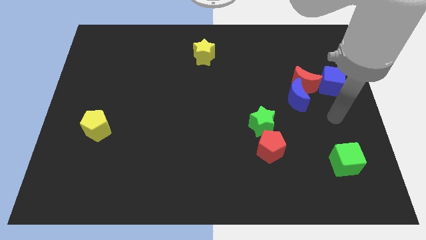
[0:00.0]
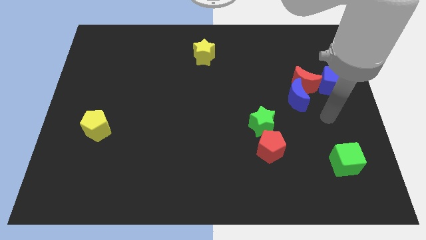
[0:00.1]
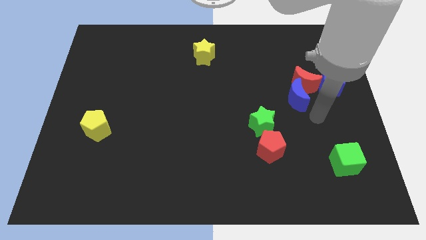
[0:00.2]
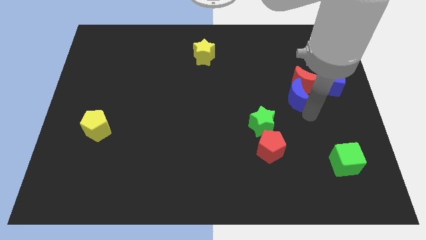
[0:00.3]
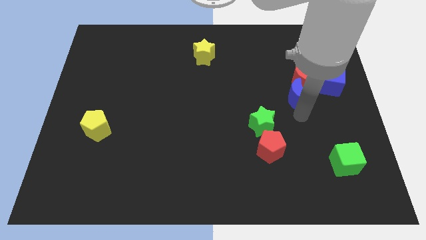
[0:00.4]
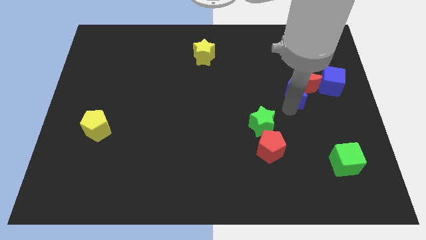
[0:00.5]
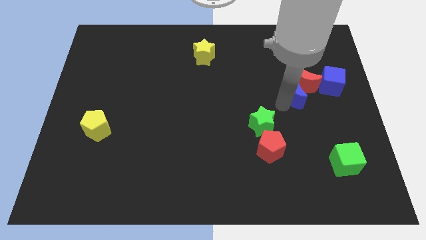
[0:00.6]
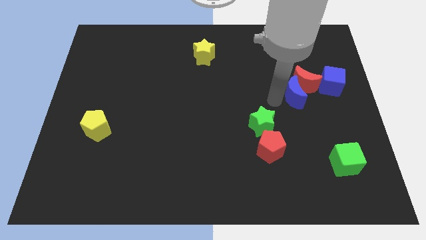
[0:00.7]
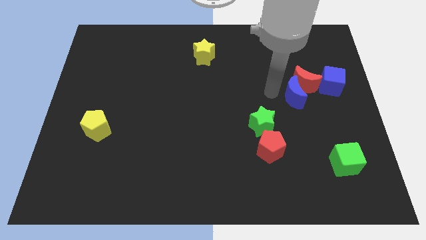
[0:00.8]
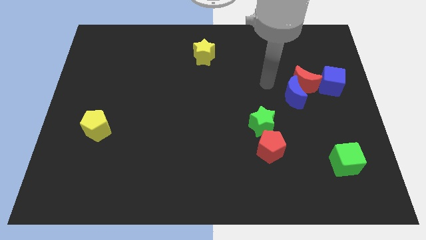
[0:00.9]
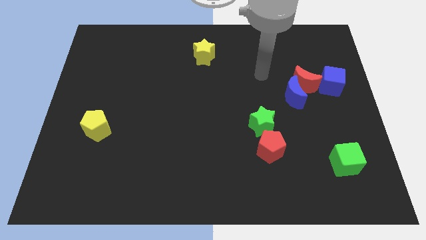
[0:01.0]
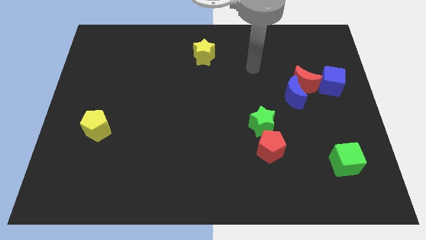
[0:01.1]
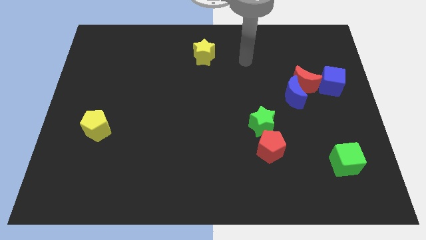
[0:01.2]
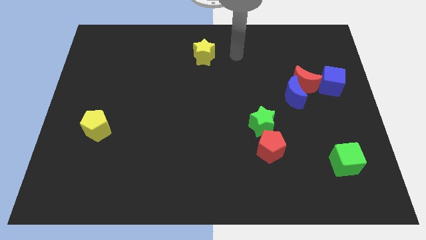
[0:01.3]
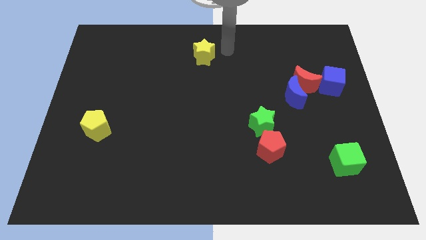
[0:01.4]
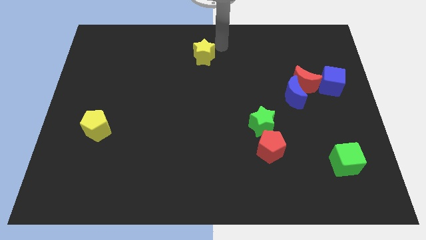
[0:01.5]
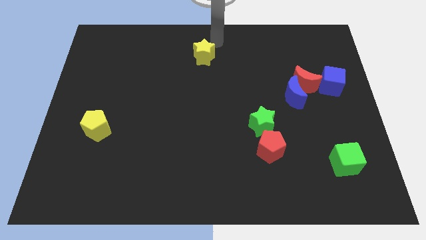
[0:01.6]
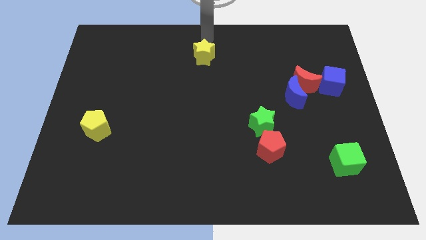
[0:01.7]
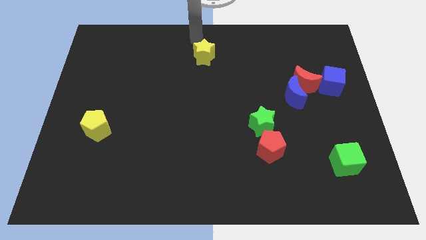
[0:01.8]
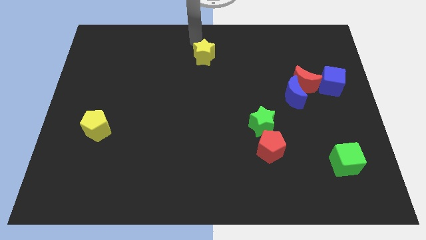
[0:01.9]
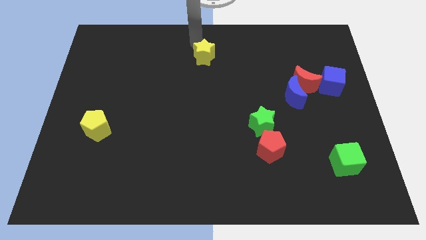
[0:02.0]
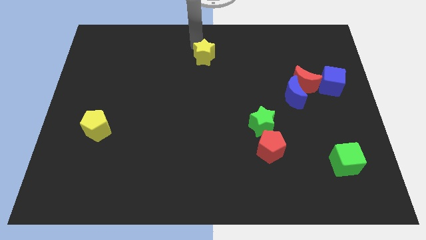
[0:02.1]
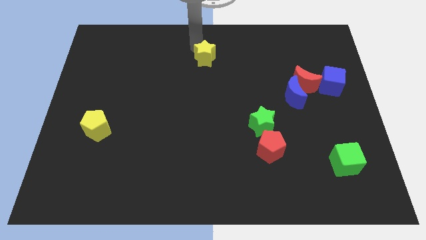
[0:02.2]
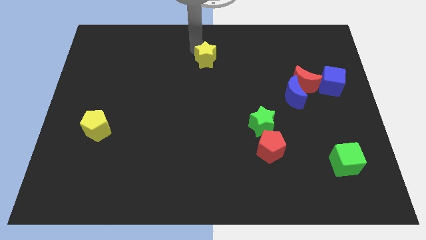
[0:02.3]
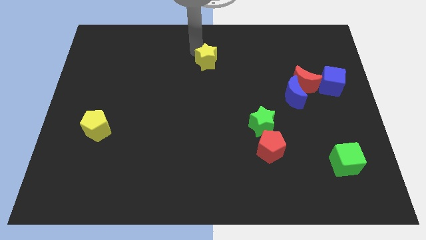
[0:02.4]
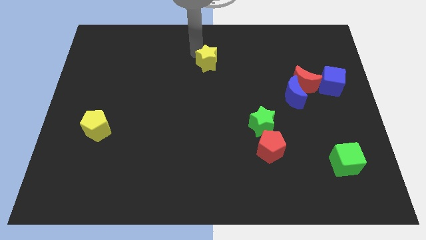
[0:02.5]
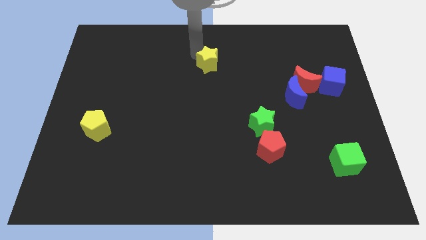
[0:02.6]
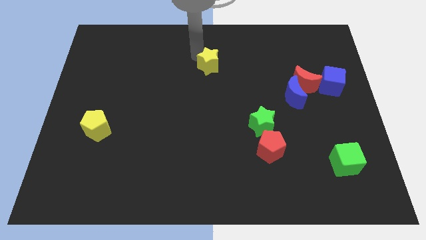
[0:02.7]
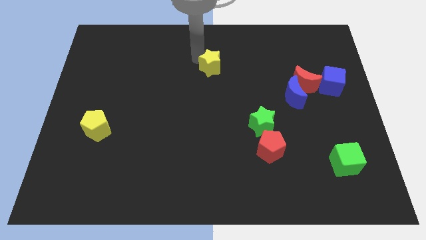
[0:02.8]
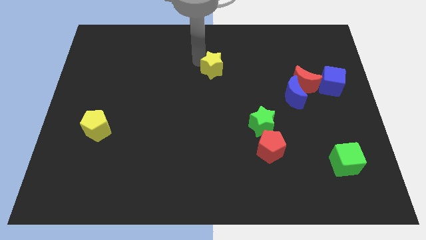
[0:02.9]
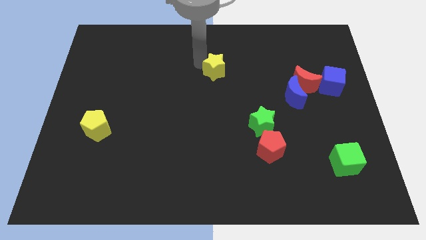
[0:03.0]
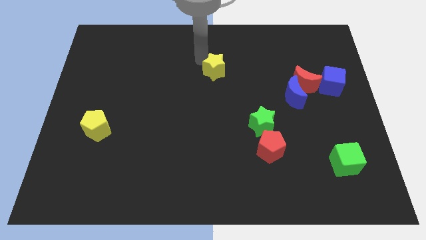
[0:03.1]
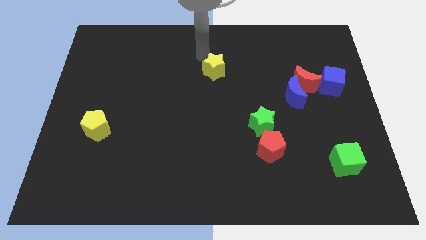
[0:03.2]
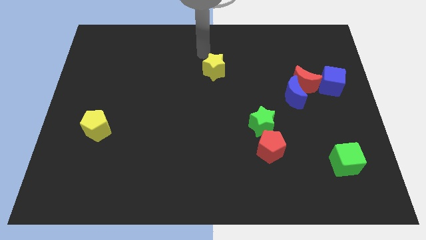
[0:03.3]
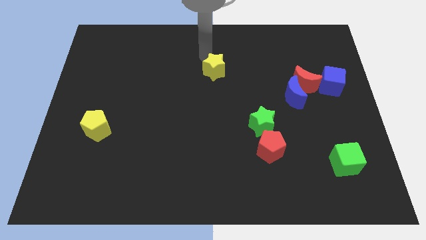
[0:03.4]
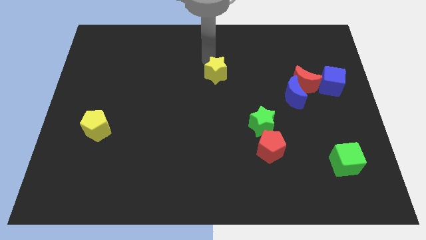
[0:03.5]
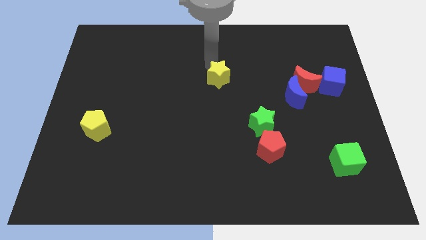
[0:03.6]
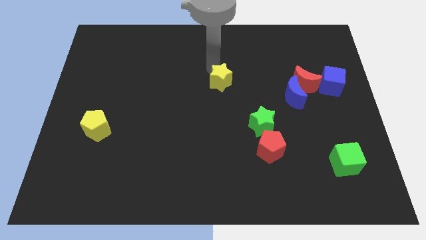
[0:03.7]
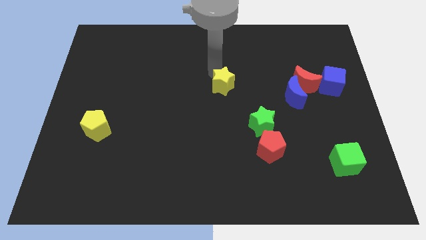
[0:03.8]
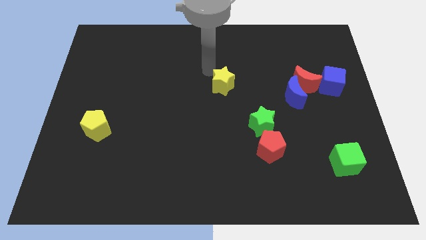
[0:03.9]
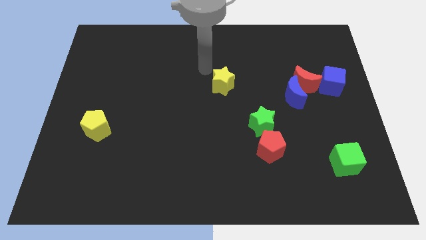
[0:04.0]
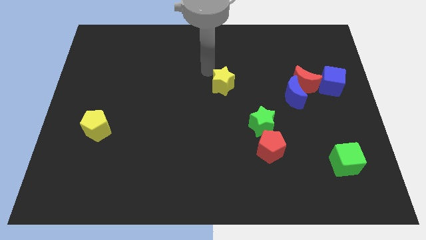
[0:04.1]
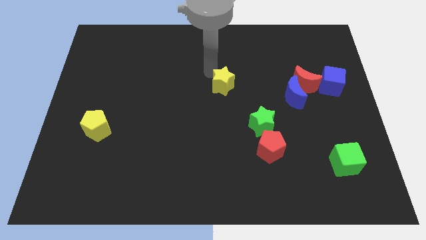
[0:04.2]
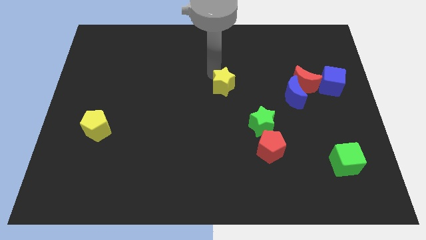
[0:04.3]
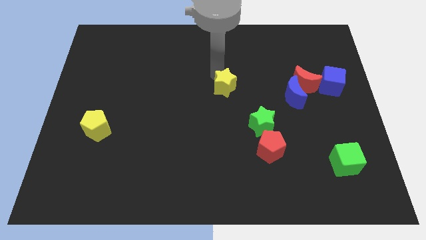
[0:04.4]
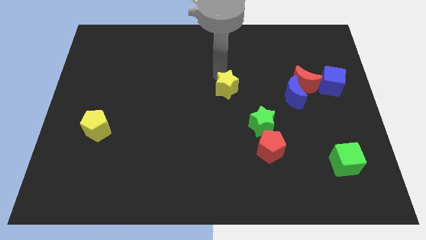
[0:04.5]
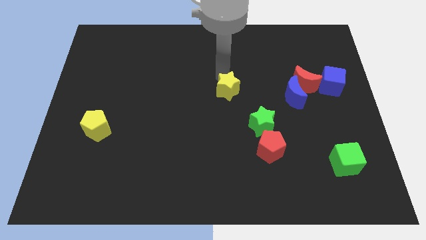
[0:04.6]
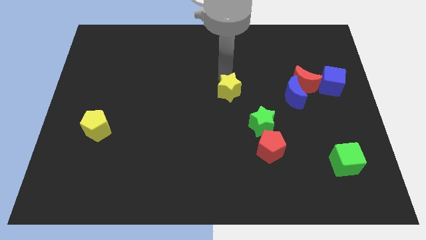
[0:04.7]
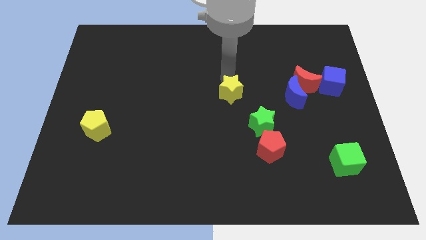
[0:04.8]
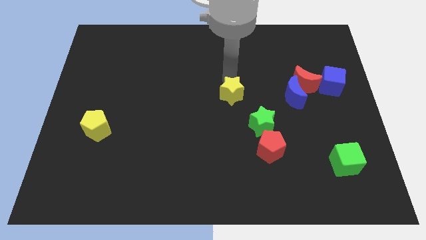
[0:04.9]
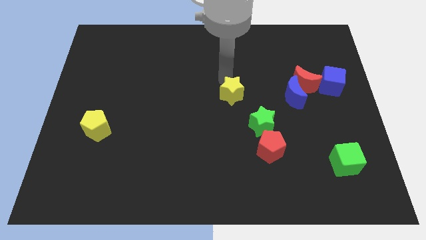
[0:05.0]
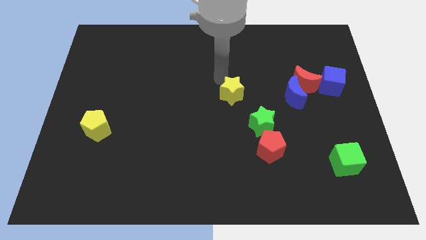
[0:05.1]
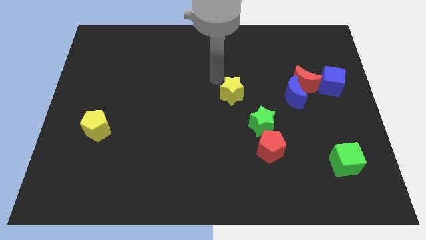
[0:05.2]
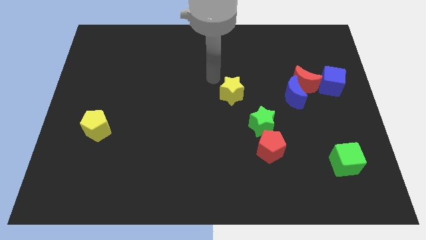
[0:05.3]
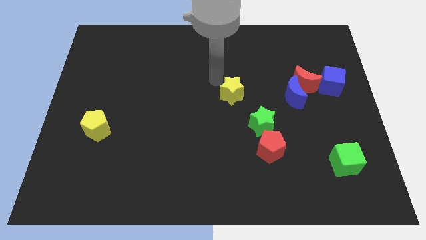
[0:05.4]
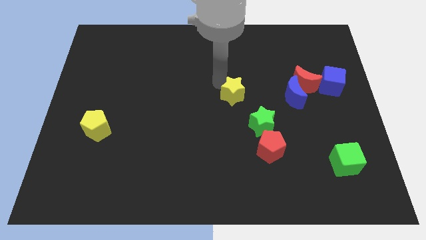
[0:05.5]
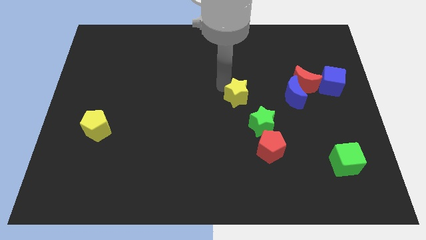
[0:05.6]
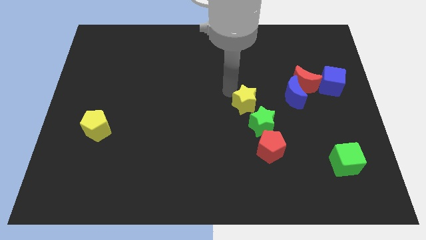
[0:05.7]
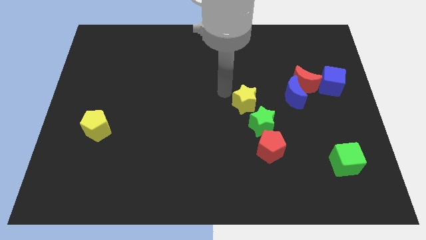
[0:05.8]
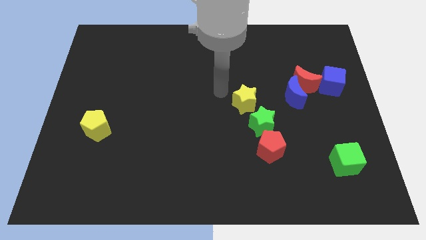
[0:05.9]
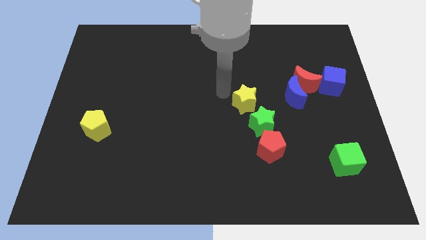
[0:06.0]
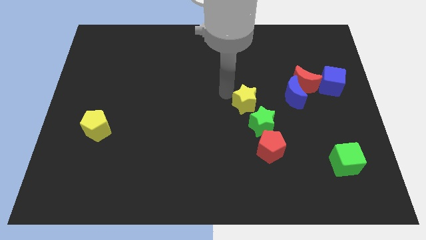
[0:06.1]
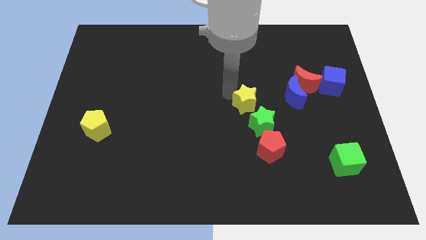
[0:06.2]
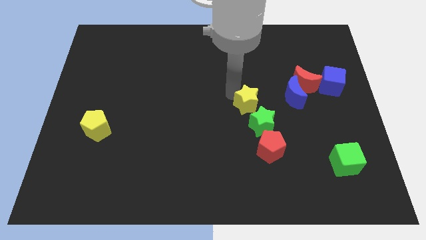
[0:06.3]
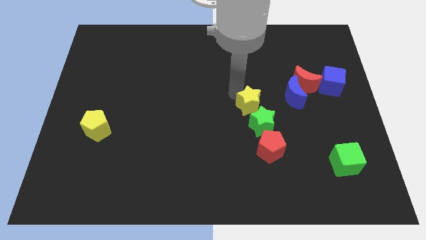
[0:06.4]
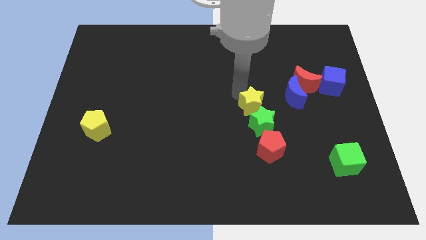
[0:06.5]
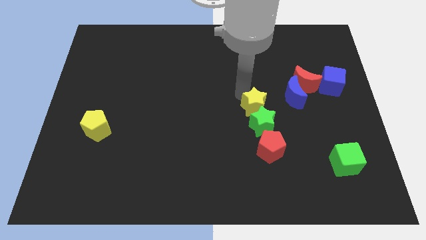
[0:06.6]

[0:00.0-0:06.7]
move the yellow star to the bottom left of the blue moon

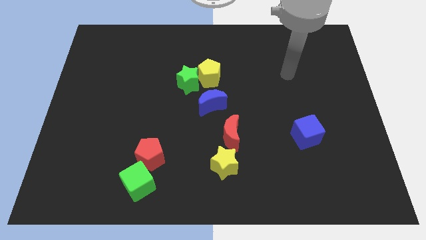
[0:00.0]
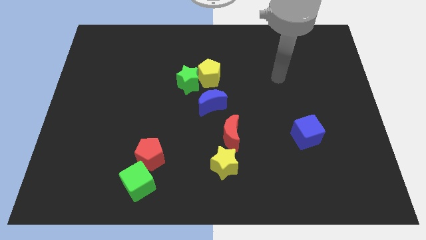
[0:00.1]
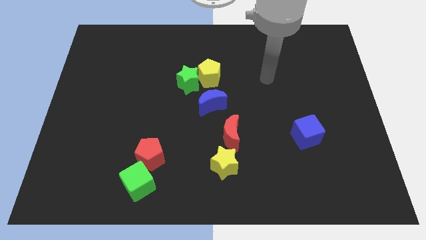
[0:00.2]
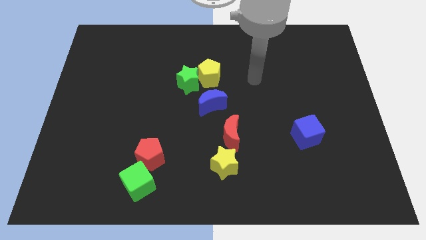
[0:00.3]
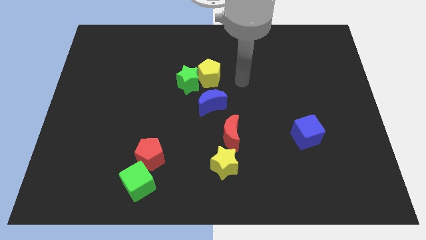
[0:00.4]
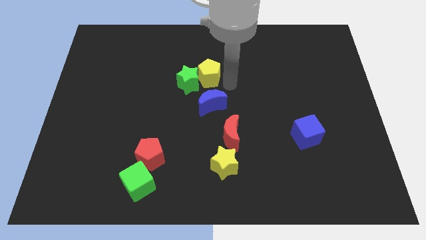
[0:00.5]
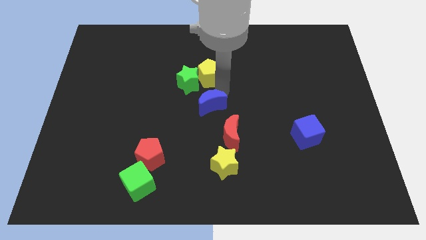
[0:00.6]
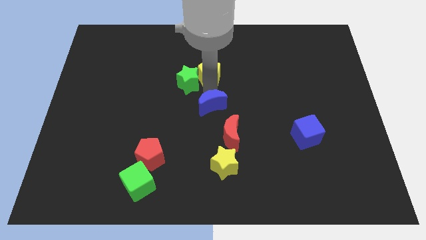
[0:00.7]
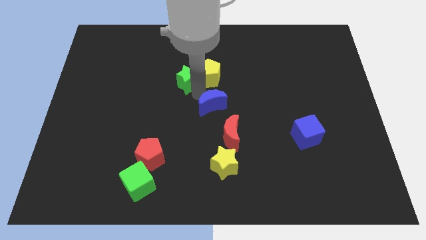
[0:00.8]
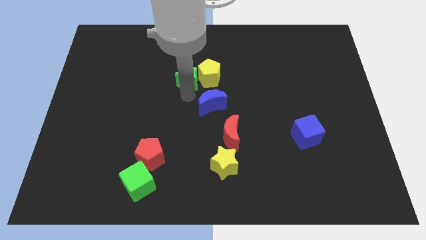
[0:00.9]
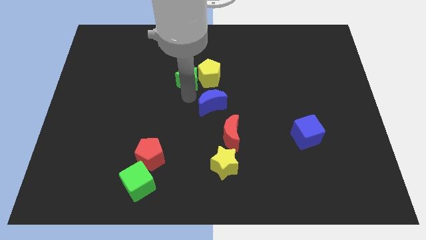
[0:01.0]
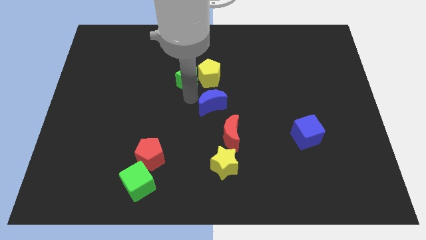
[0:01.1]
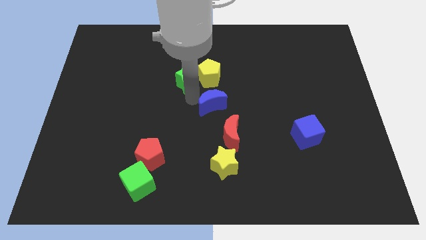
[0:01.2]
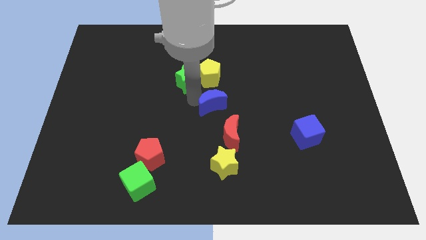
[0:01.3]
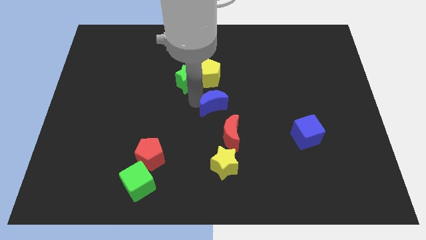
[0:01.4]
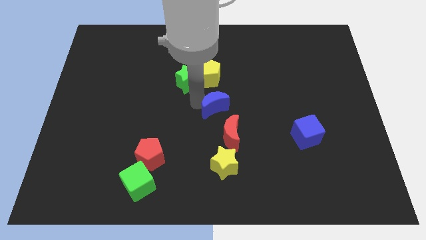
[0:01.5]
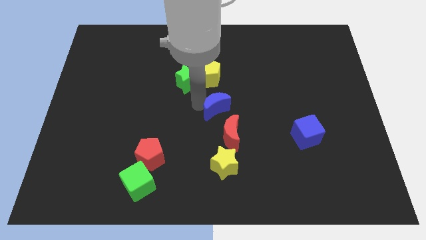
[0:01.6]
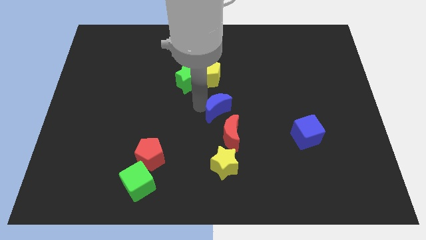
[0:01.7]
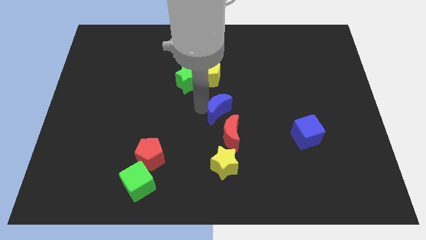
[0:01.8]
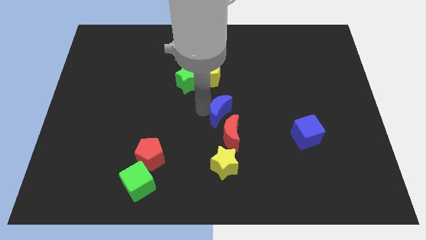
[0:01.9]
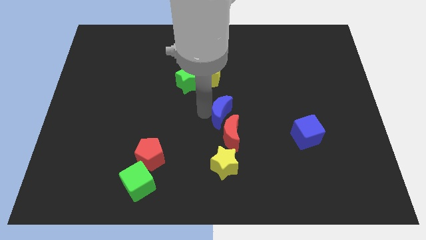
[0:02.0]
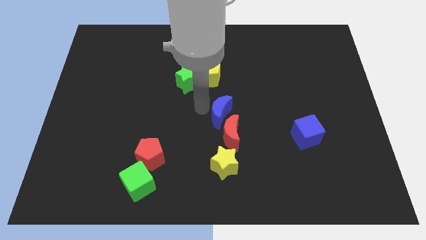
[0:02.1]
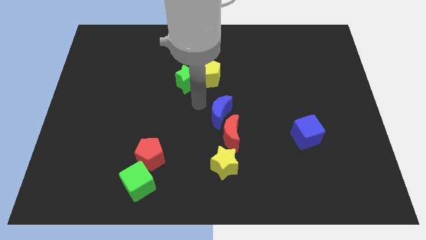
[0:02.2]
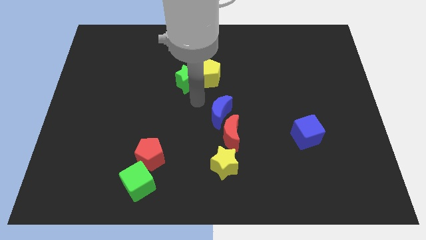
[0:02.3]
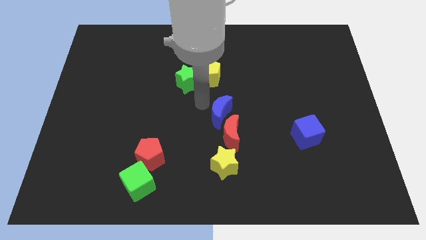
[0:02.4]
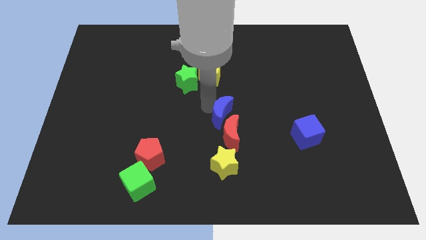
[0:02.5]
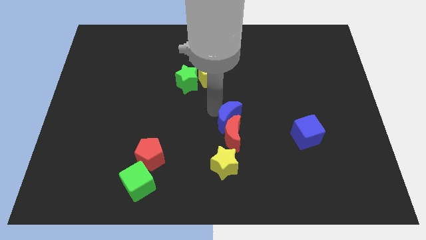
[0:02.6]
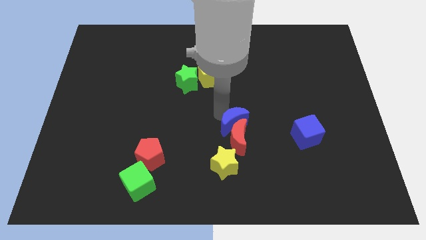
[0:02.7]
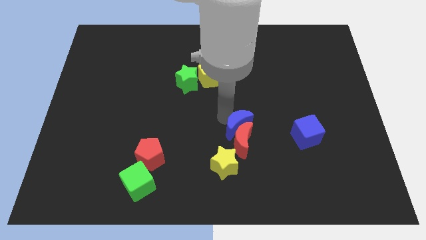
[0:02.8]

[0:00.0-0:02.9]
put the blue moon diagonally up and to the right of the yellow star
